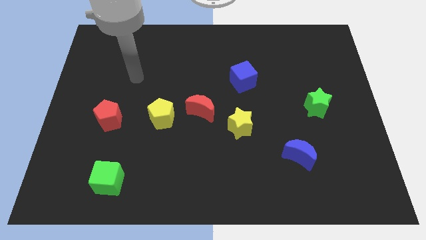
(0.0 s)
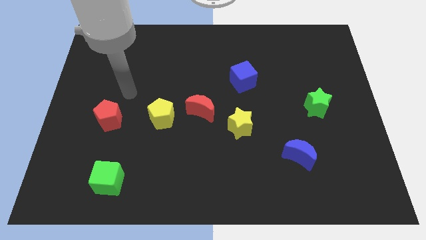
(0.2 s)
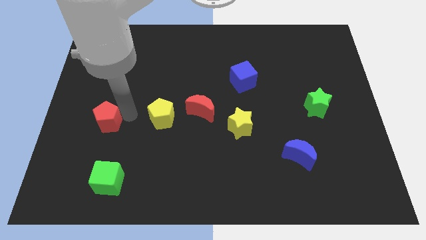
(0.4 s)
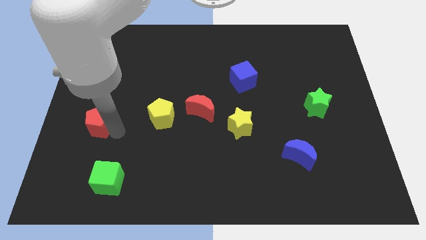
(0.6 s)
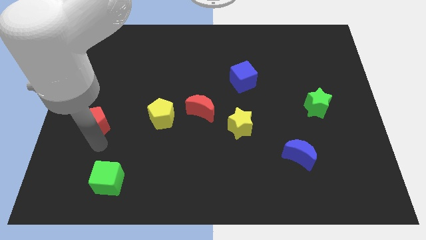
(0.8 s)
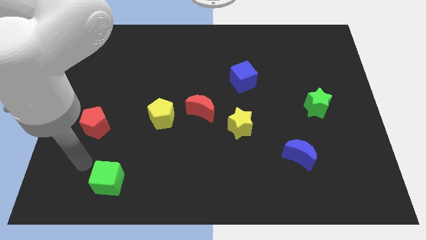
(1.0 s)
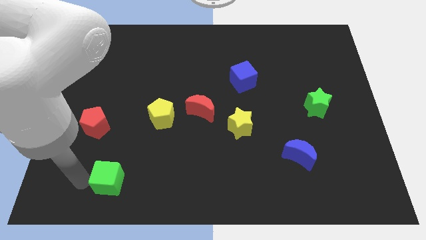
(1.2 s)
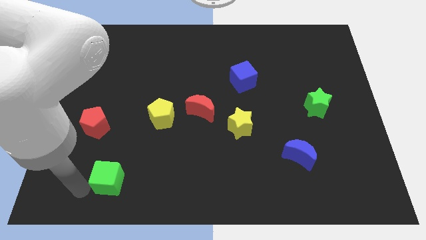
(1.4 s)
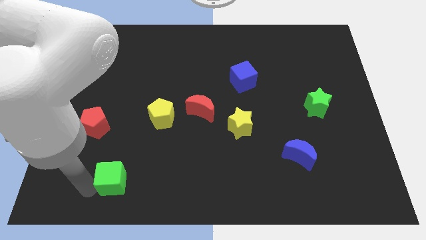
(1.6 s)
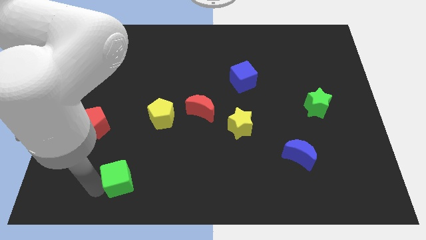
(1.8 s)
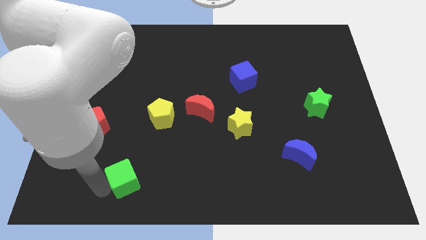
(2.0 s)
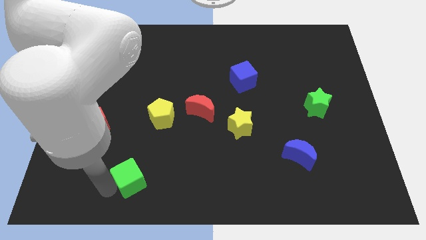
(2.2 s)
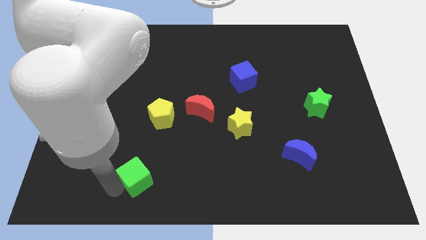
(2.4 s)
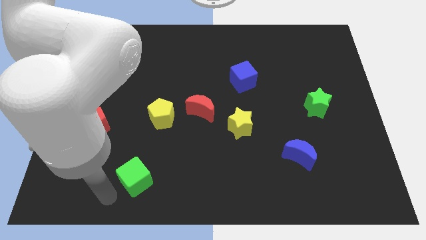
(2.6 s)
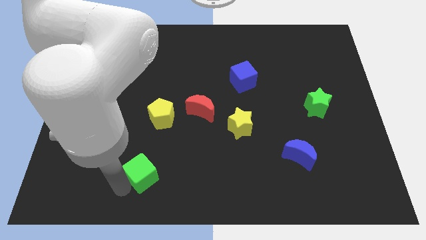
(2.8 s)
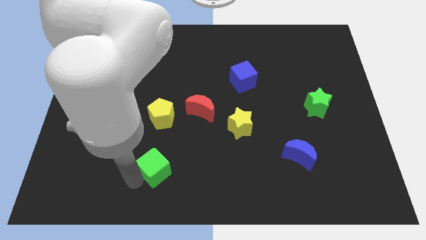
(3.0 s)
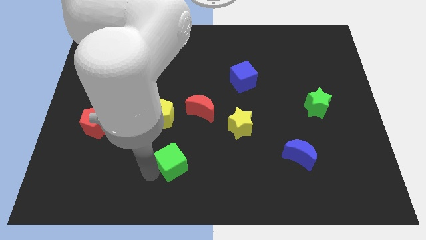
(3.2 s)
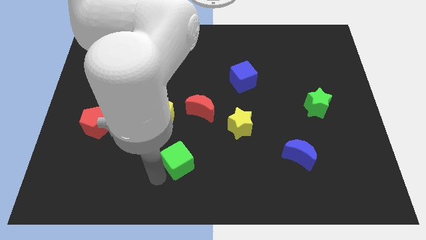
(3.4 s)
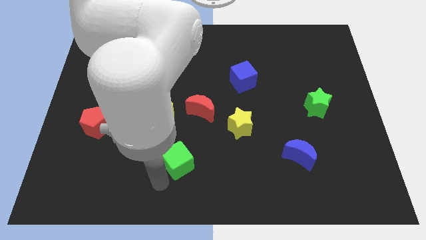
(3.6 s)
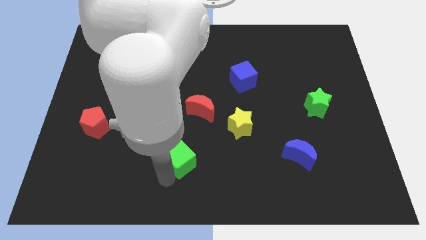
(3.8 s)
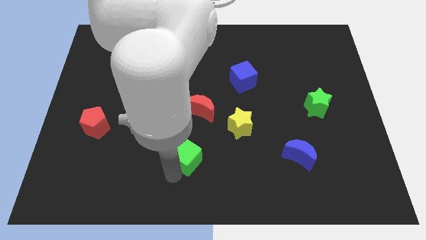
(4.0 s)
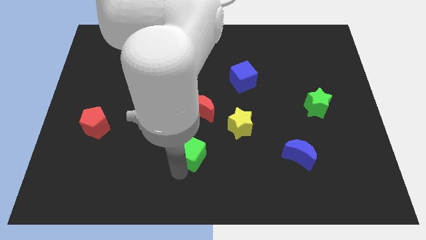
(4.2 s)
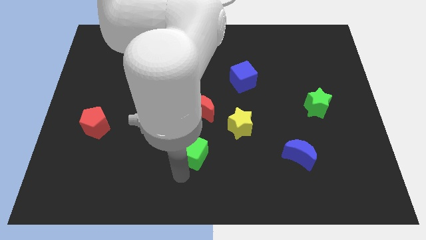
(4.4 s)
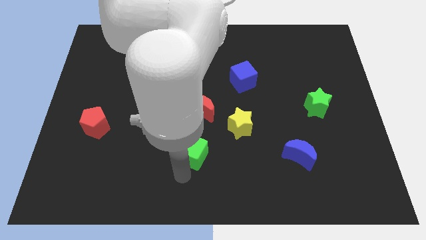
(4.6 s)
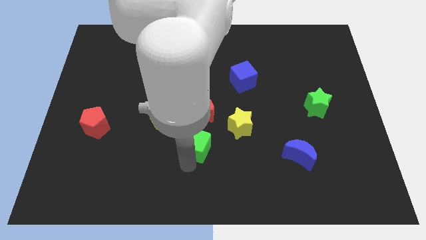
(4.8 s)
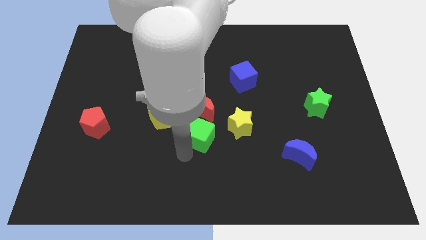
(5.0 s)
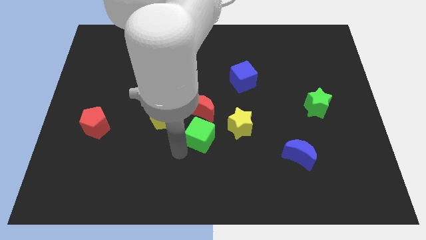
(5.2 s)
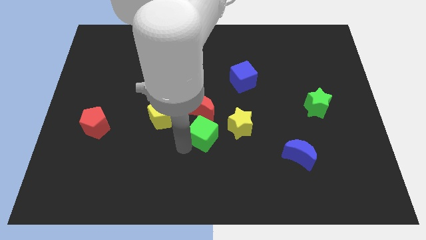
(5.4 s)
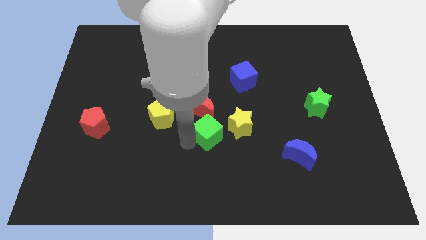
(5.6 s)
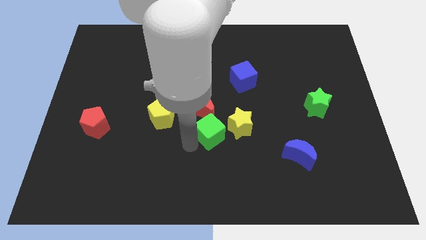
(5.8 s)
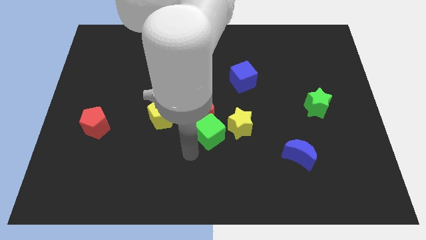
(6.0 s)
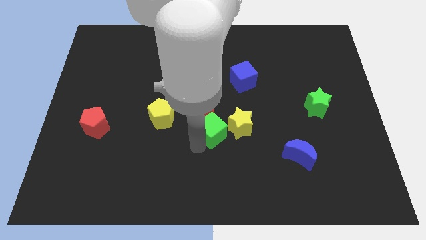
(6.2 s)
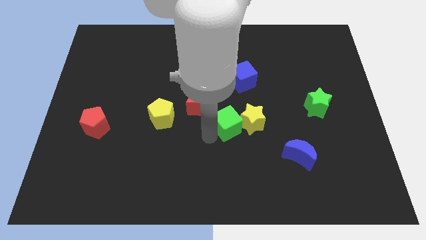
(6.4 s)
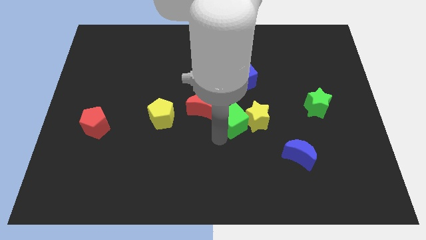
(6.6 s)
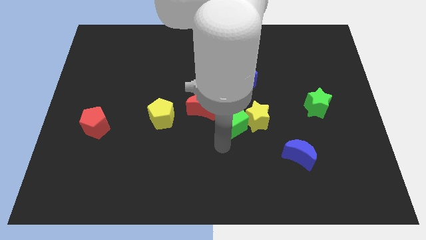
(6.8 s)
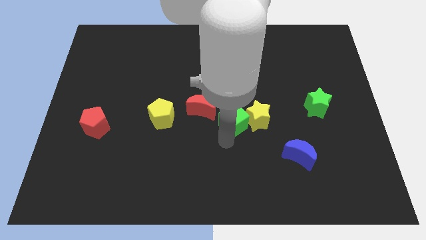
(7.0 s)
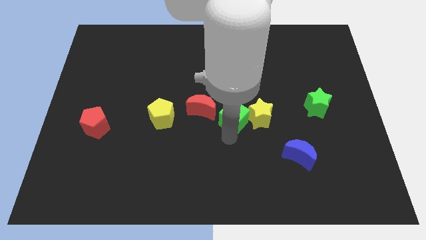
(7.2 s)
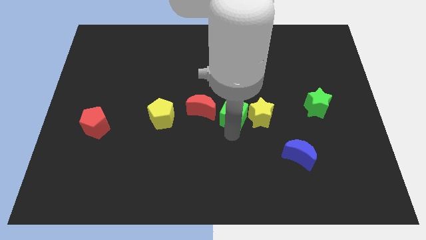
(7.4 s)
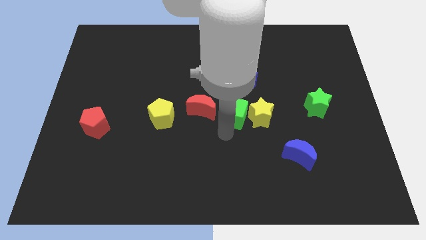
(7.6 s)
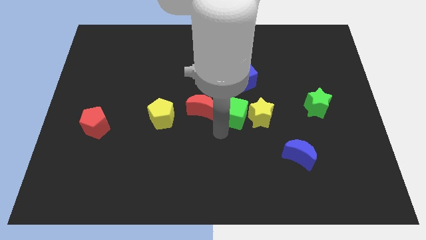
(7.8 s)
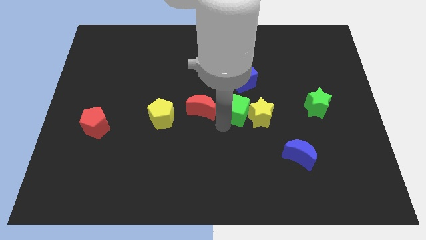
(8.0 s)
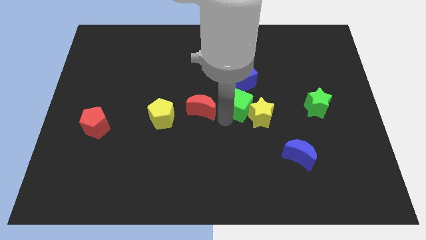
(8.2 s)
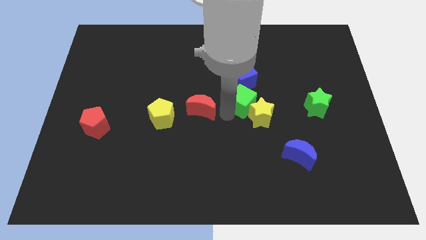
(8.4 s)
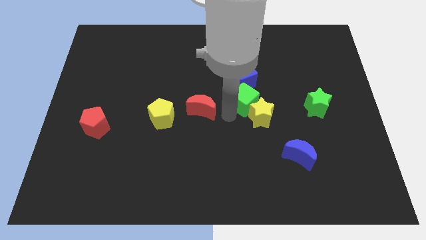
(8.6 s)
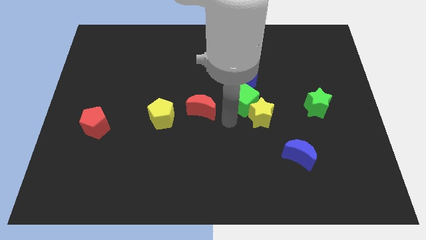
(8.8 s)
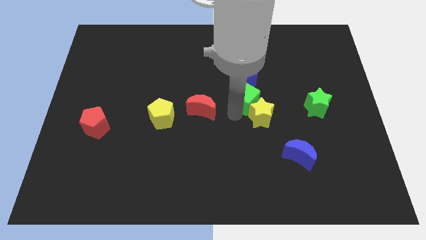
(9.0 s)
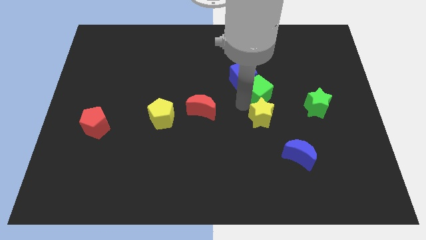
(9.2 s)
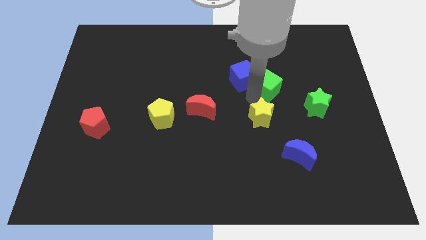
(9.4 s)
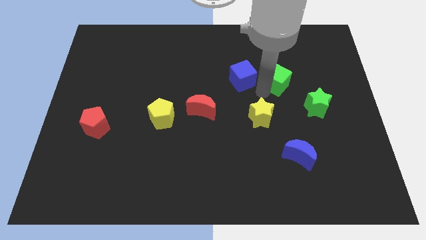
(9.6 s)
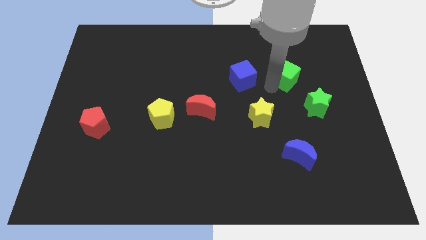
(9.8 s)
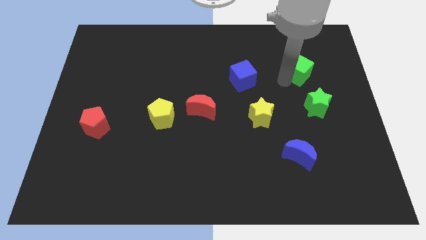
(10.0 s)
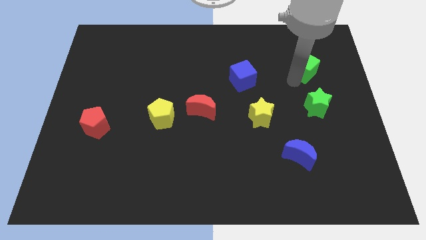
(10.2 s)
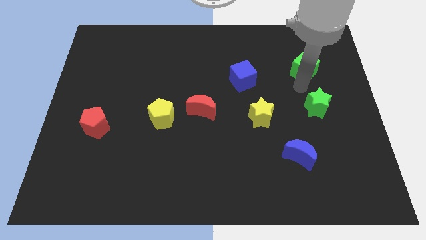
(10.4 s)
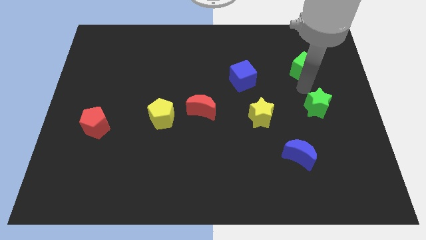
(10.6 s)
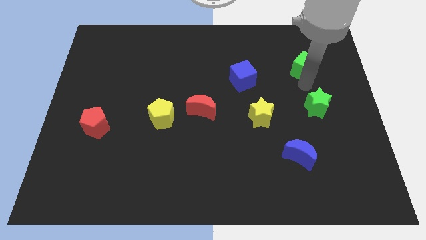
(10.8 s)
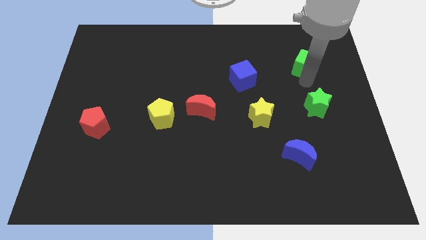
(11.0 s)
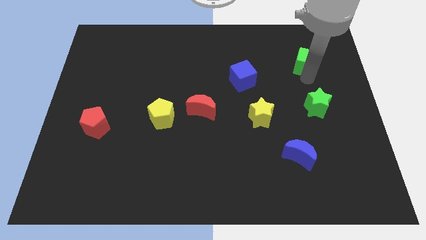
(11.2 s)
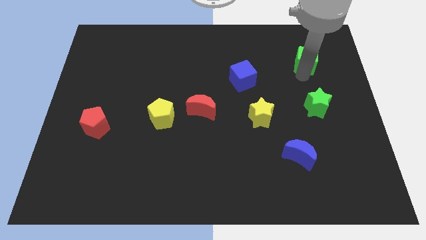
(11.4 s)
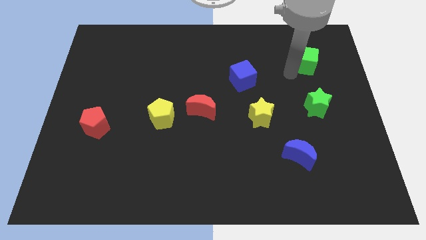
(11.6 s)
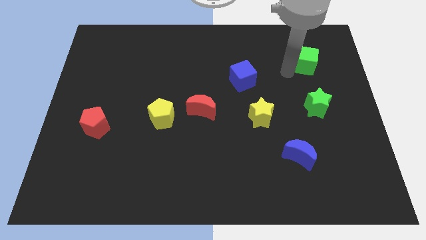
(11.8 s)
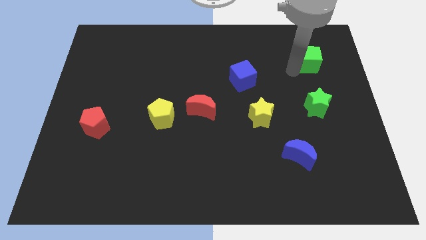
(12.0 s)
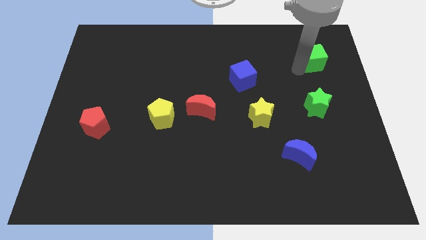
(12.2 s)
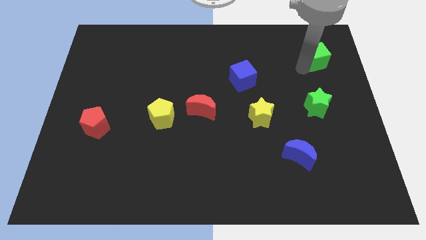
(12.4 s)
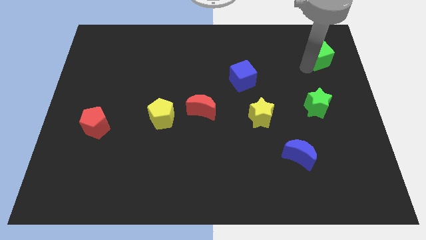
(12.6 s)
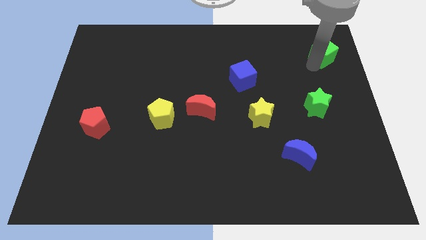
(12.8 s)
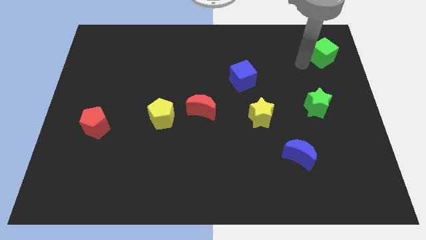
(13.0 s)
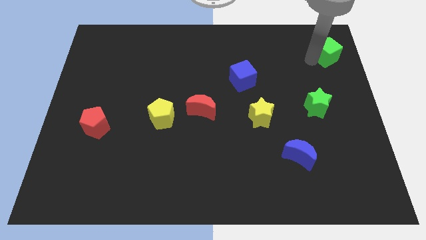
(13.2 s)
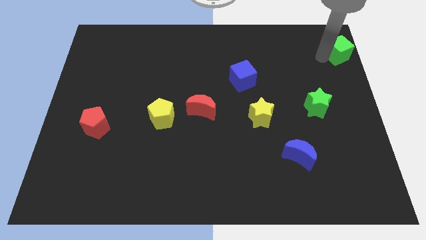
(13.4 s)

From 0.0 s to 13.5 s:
slide the green cube to the top right corner

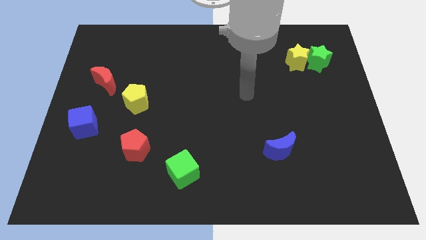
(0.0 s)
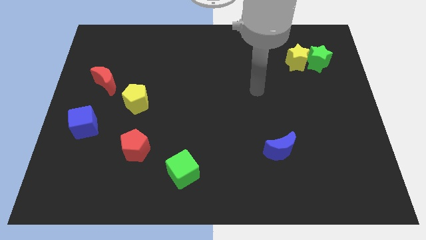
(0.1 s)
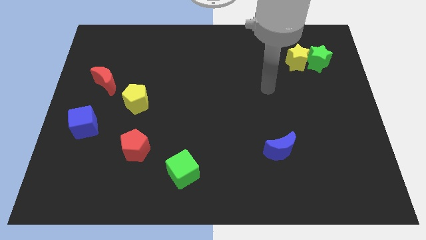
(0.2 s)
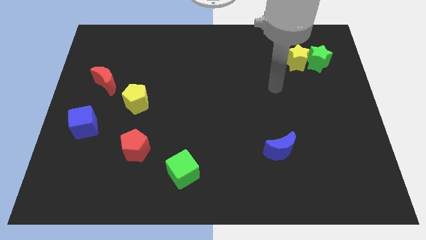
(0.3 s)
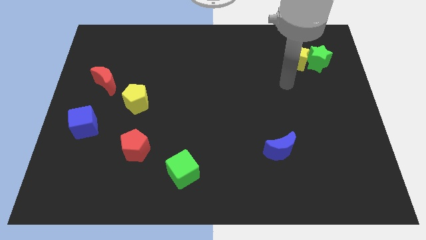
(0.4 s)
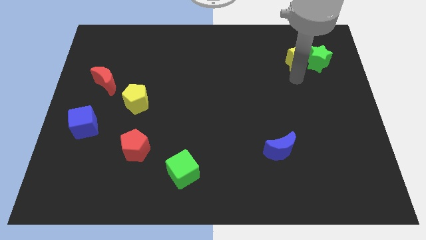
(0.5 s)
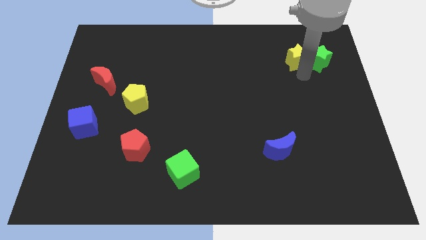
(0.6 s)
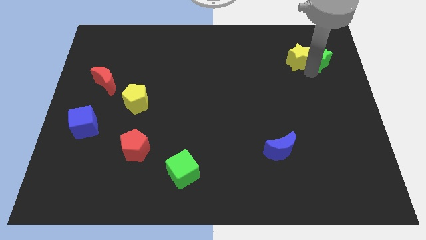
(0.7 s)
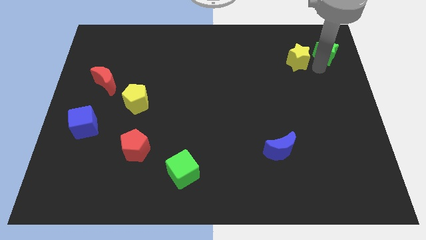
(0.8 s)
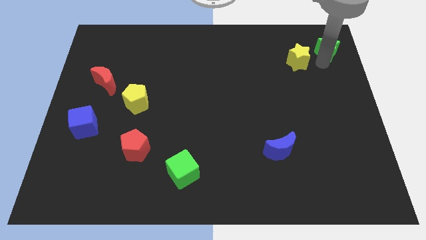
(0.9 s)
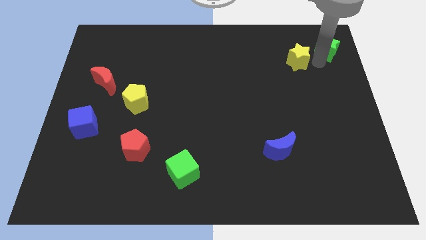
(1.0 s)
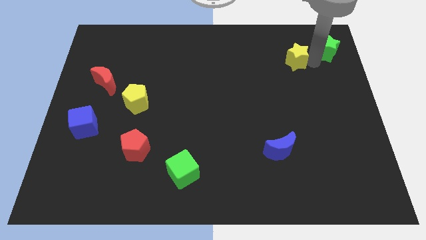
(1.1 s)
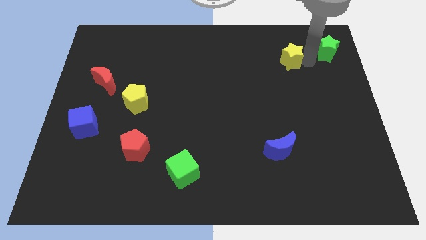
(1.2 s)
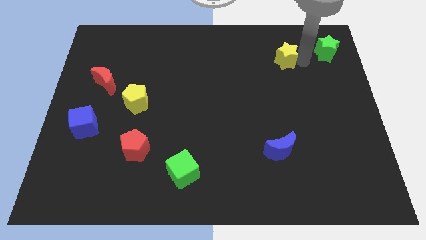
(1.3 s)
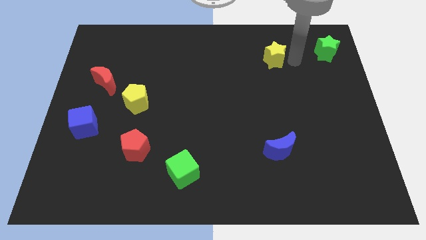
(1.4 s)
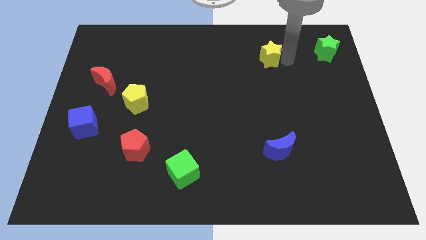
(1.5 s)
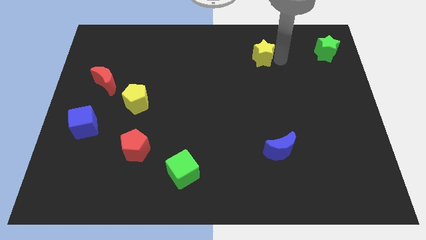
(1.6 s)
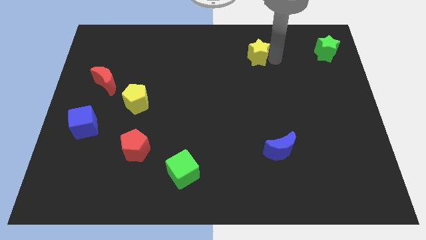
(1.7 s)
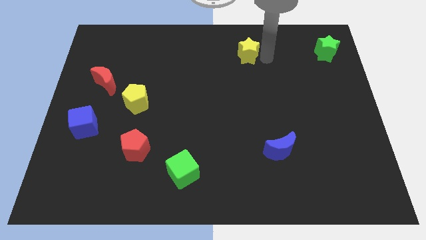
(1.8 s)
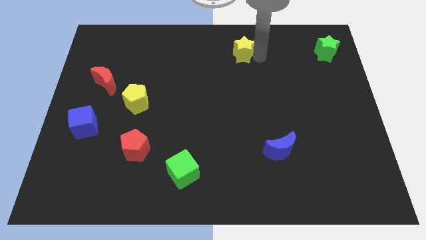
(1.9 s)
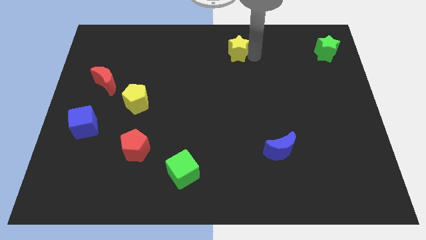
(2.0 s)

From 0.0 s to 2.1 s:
slide the yellow star to the top side
